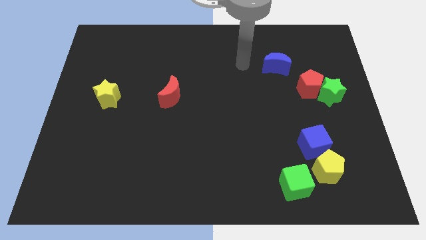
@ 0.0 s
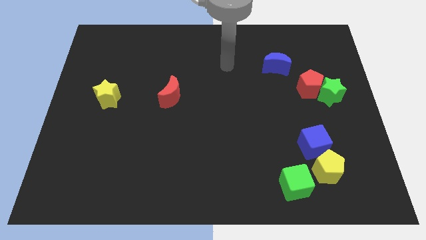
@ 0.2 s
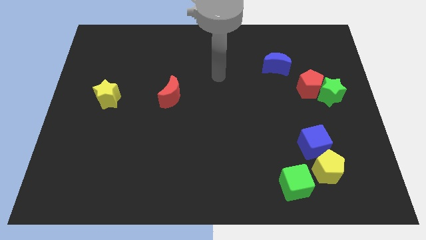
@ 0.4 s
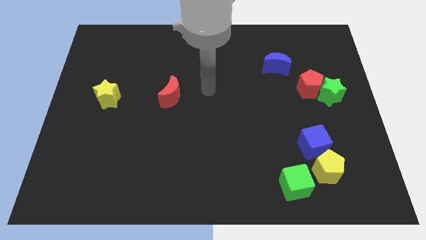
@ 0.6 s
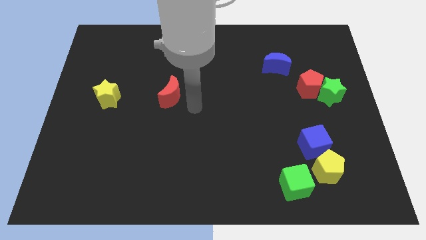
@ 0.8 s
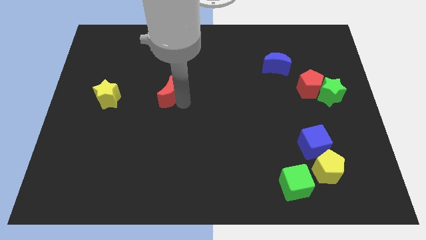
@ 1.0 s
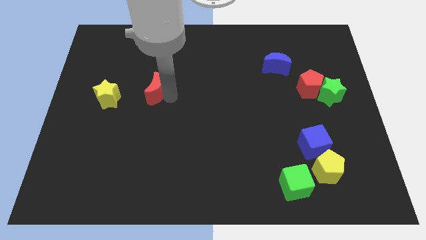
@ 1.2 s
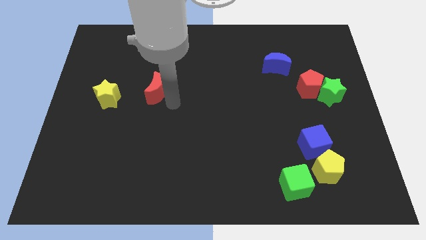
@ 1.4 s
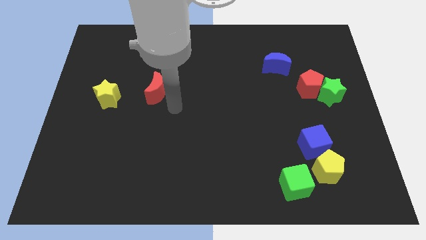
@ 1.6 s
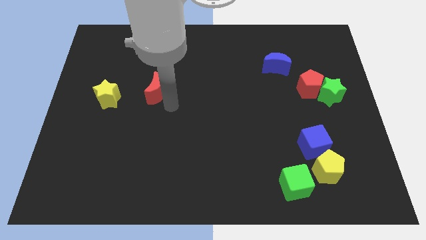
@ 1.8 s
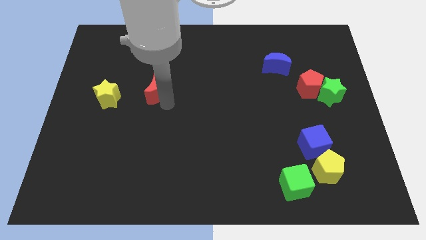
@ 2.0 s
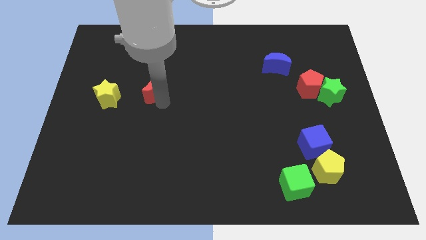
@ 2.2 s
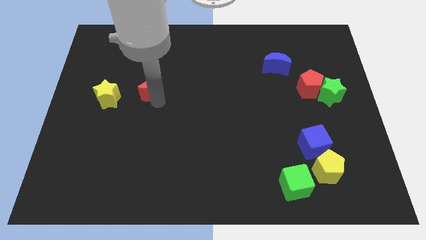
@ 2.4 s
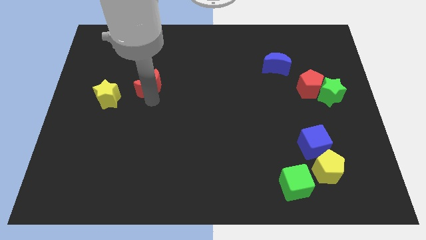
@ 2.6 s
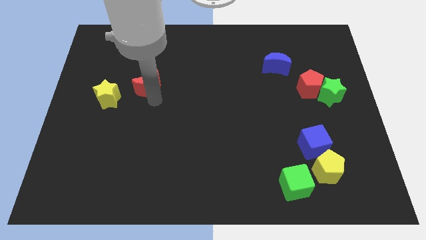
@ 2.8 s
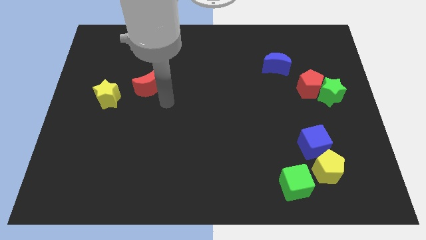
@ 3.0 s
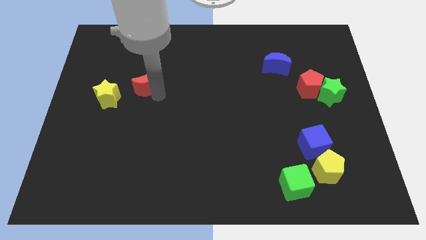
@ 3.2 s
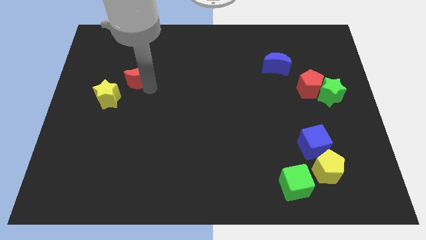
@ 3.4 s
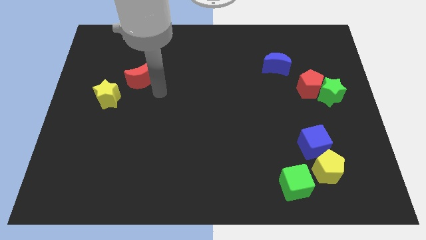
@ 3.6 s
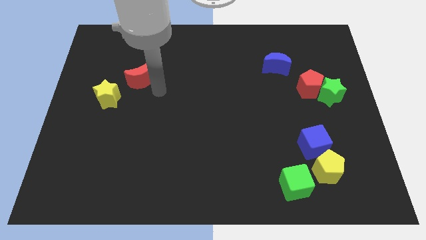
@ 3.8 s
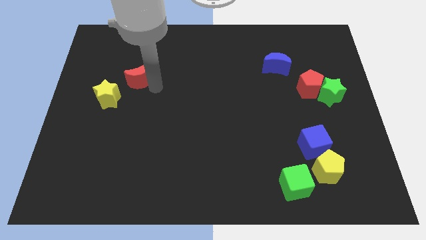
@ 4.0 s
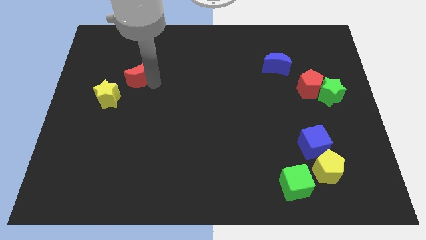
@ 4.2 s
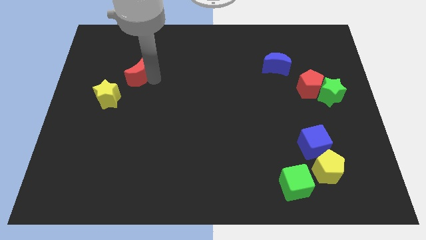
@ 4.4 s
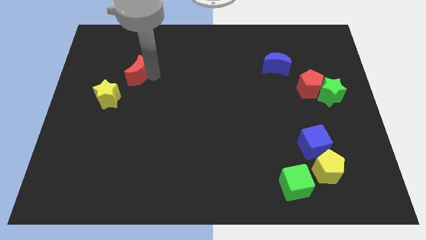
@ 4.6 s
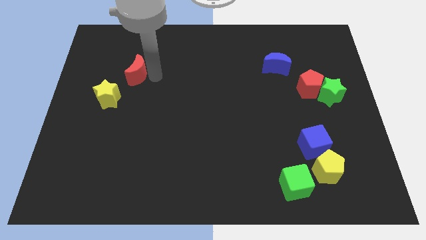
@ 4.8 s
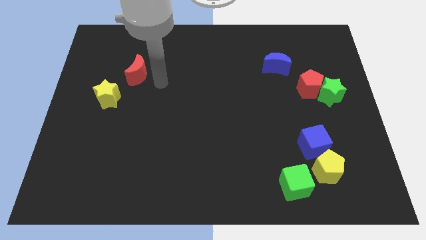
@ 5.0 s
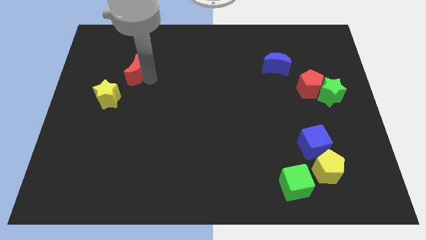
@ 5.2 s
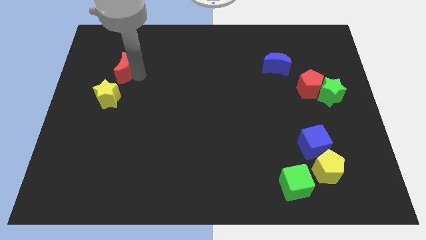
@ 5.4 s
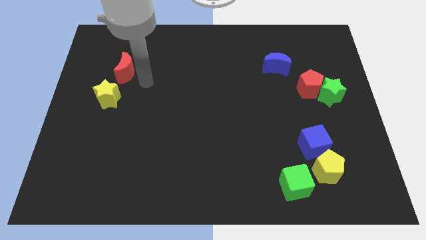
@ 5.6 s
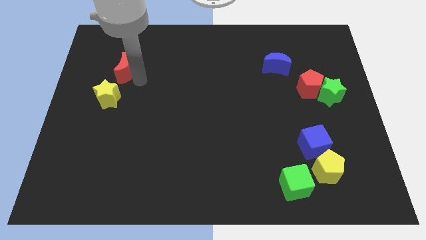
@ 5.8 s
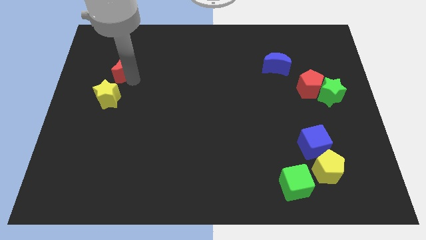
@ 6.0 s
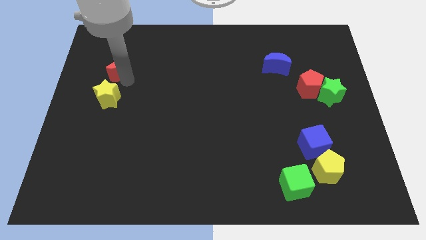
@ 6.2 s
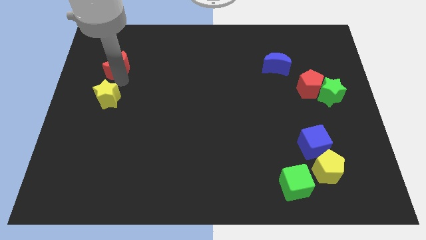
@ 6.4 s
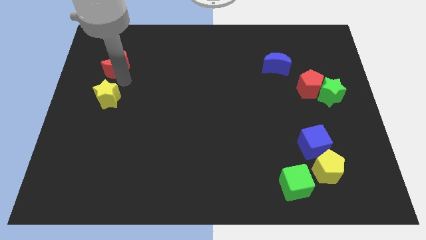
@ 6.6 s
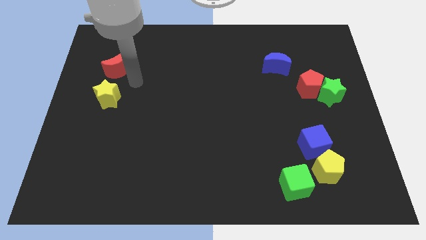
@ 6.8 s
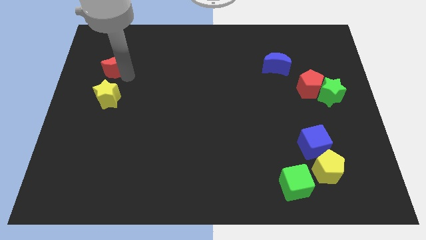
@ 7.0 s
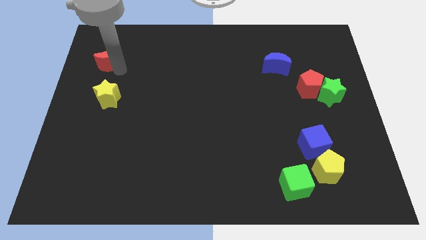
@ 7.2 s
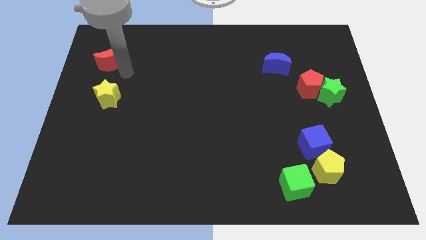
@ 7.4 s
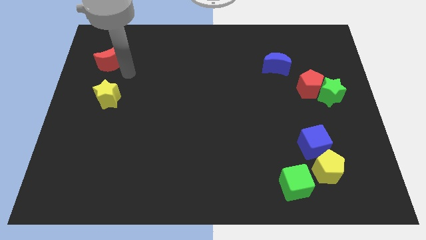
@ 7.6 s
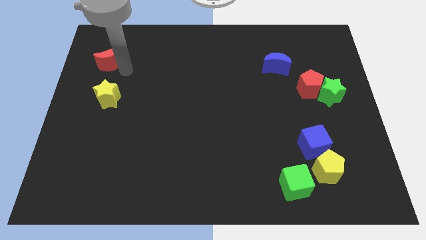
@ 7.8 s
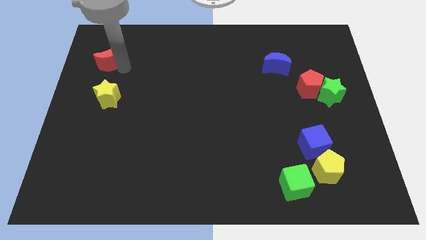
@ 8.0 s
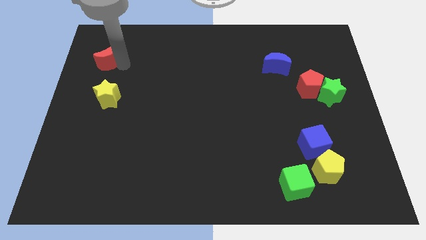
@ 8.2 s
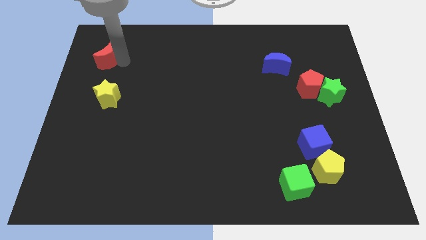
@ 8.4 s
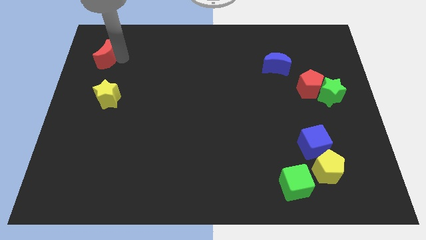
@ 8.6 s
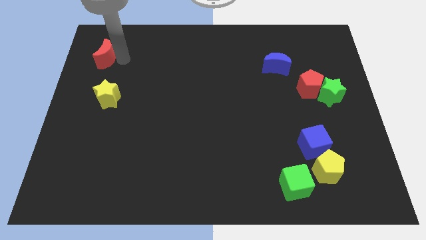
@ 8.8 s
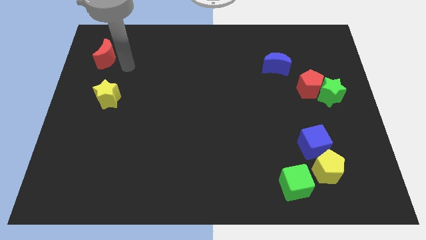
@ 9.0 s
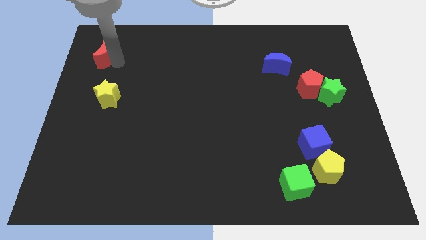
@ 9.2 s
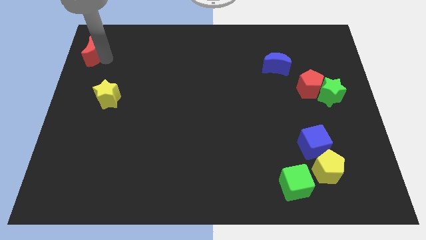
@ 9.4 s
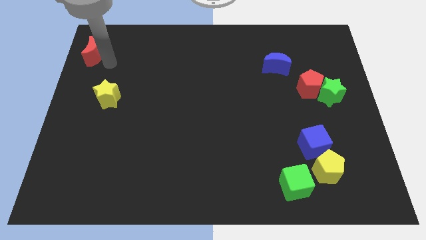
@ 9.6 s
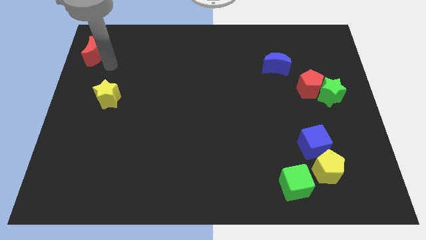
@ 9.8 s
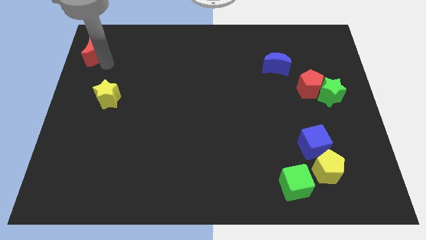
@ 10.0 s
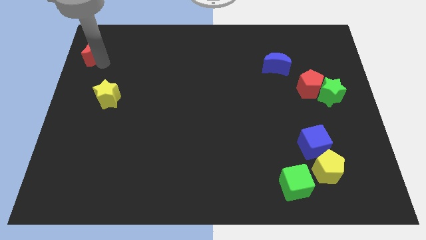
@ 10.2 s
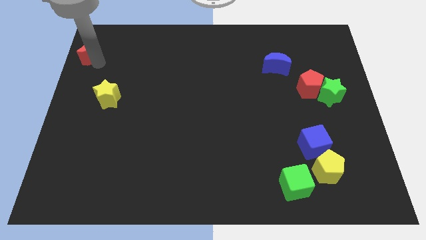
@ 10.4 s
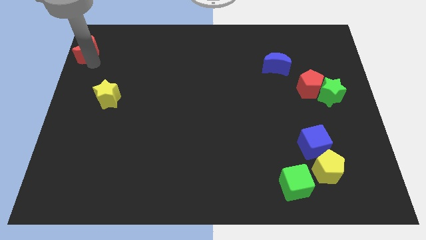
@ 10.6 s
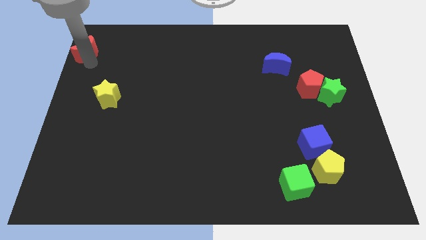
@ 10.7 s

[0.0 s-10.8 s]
move the red moon to the top left corner
